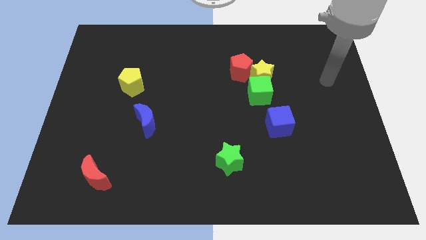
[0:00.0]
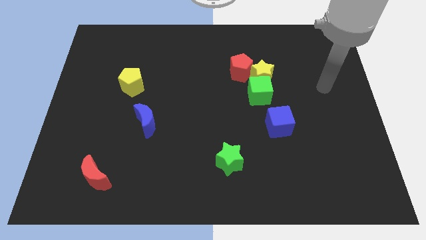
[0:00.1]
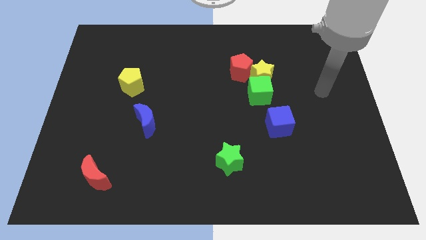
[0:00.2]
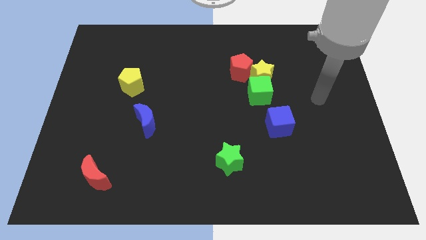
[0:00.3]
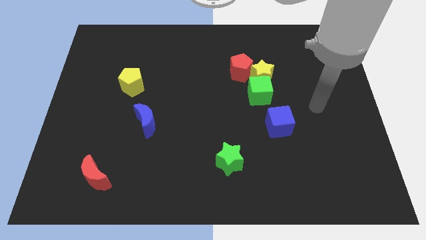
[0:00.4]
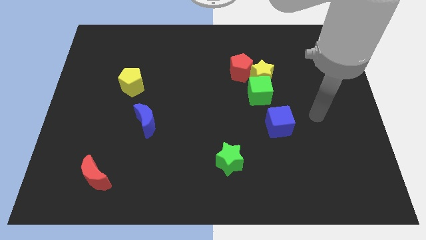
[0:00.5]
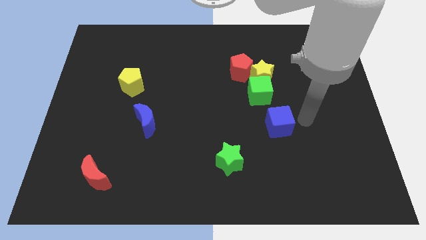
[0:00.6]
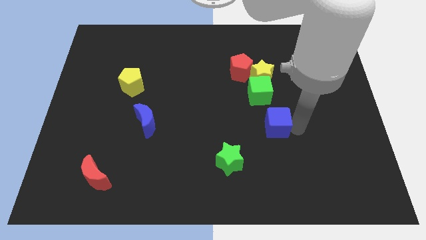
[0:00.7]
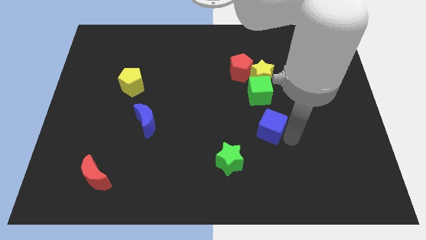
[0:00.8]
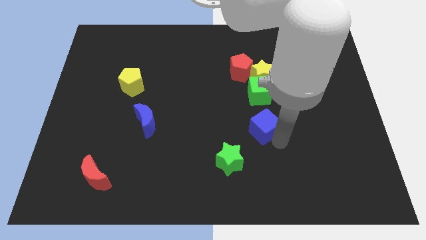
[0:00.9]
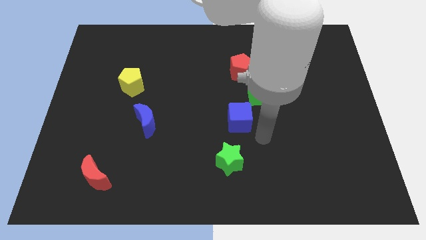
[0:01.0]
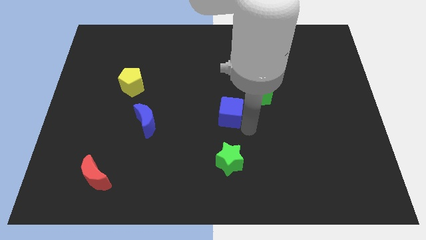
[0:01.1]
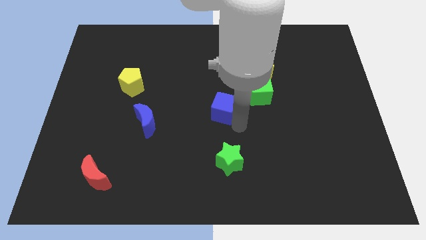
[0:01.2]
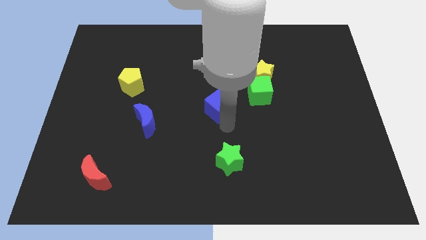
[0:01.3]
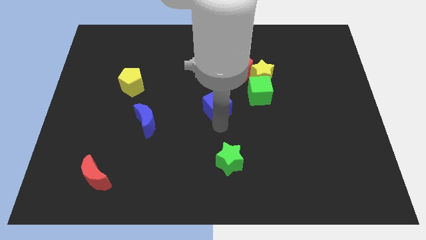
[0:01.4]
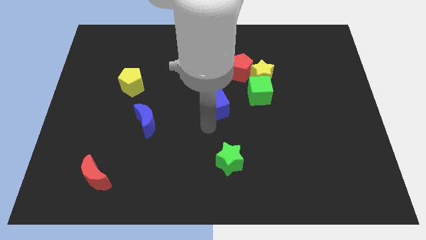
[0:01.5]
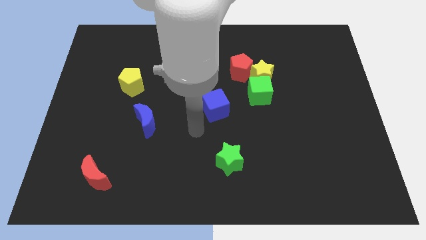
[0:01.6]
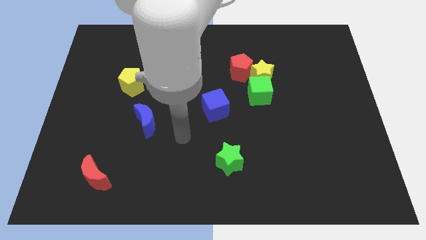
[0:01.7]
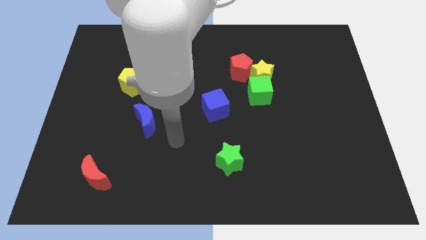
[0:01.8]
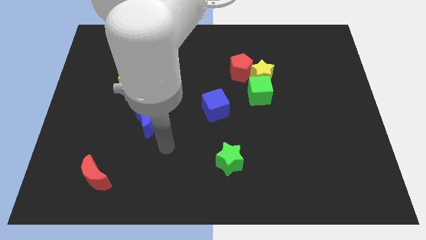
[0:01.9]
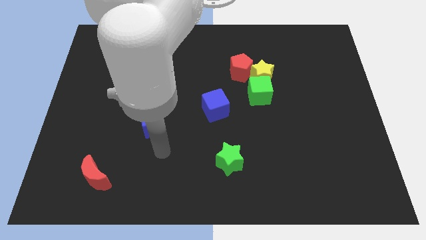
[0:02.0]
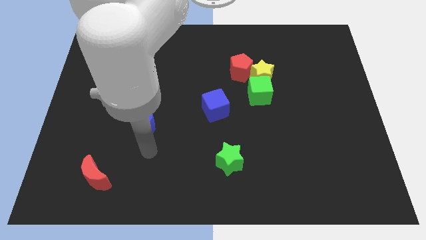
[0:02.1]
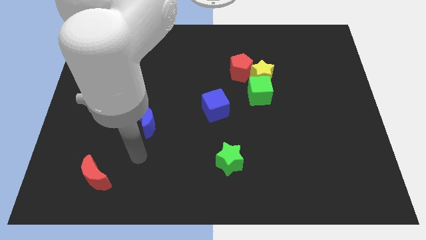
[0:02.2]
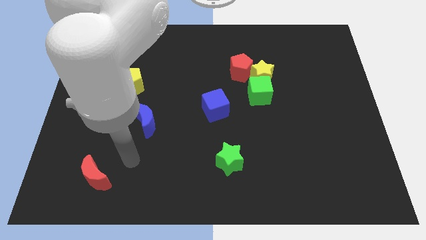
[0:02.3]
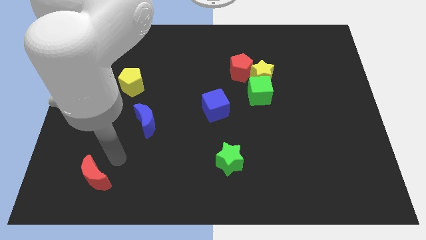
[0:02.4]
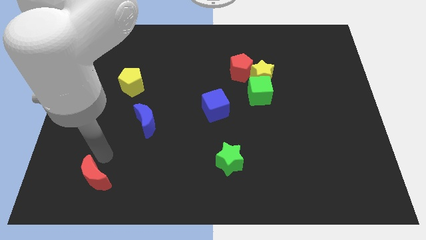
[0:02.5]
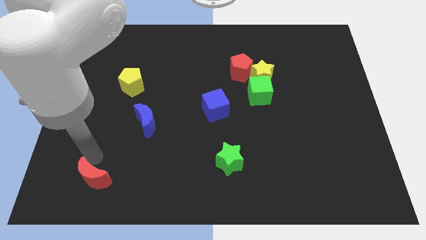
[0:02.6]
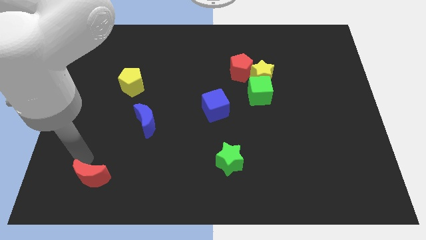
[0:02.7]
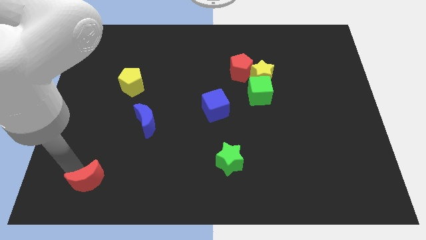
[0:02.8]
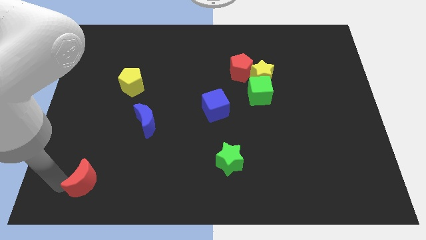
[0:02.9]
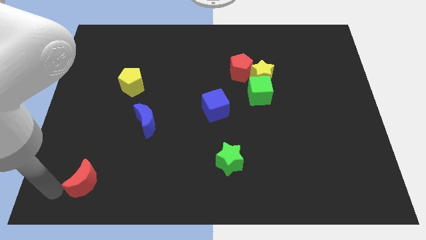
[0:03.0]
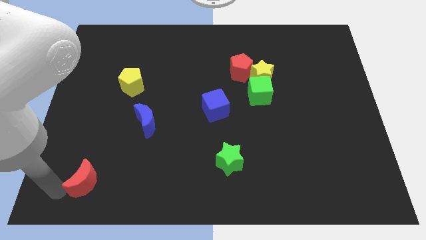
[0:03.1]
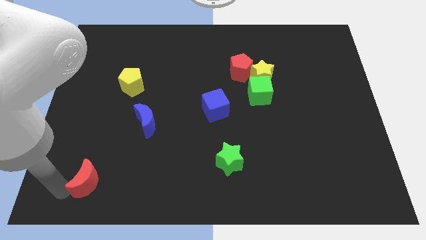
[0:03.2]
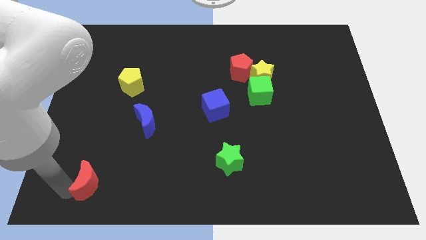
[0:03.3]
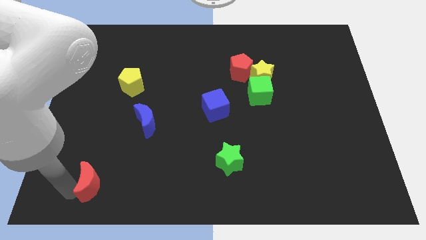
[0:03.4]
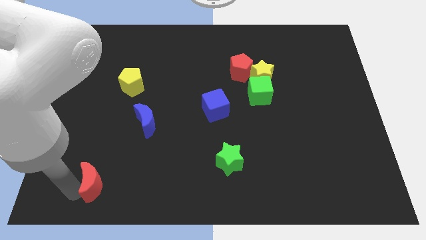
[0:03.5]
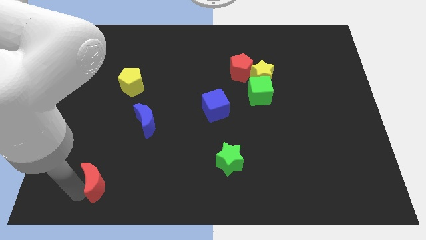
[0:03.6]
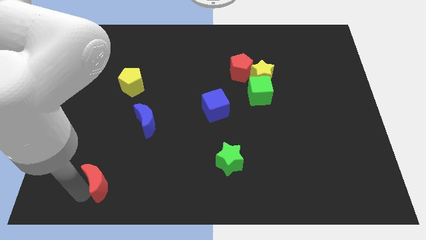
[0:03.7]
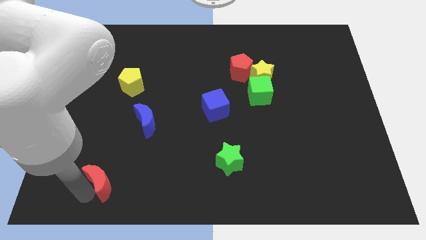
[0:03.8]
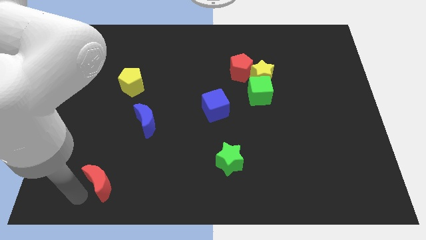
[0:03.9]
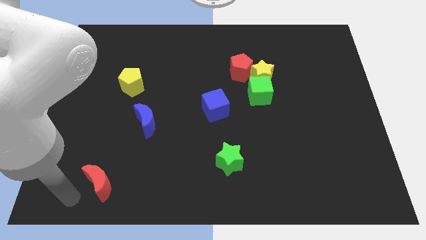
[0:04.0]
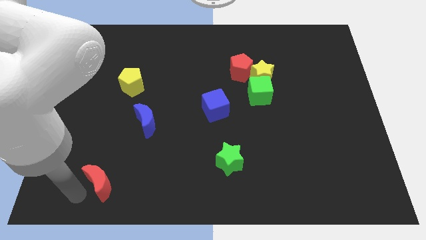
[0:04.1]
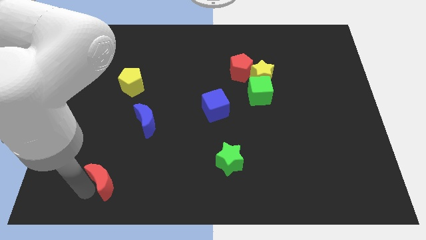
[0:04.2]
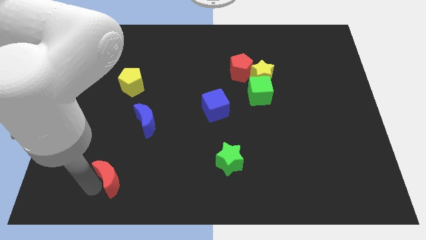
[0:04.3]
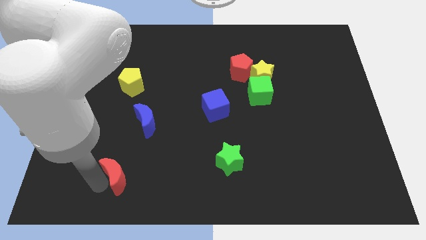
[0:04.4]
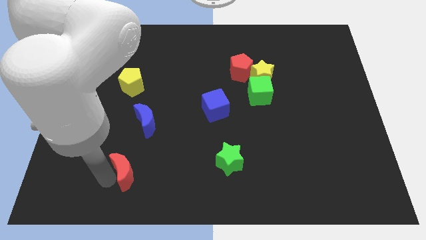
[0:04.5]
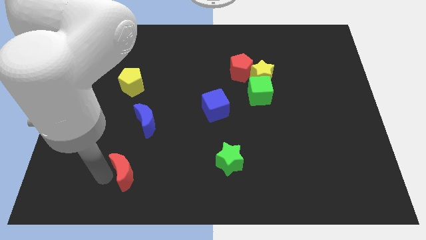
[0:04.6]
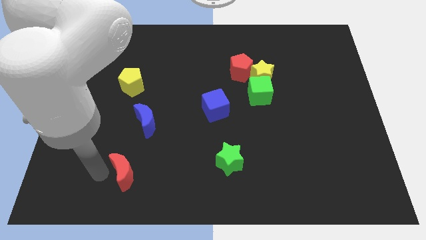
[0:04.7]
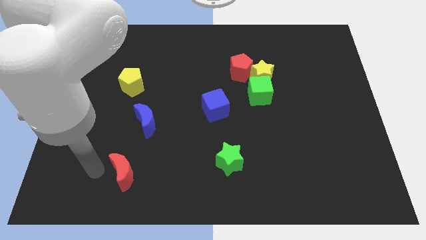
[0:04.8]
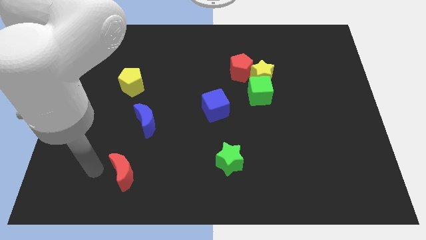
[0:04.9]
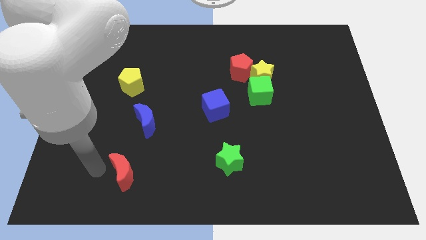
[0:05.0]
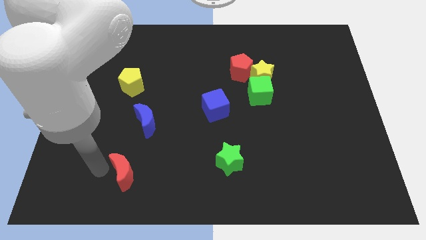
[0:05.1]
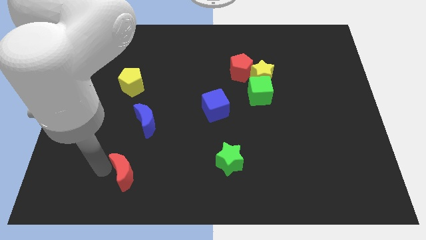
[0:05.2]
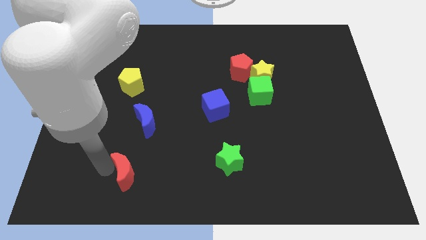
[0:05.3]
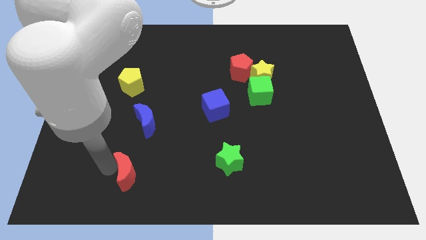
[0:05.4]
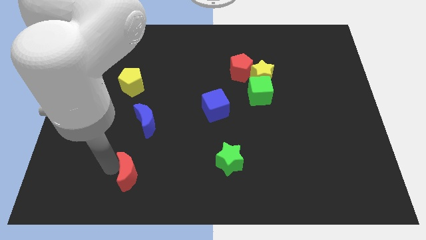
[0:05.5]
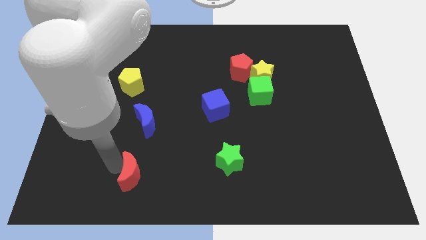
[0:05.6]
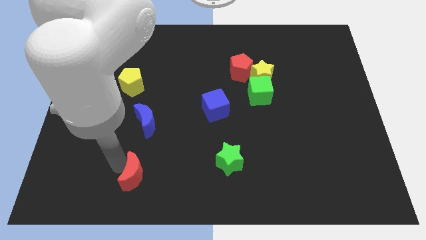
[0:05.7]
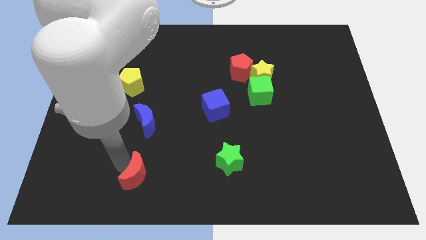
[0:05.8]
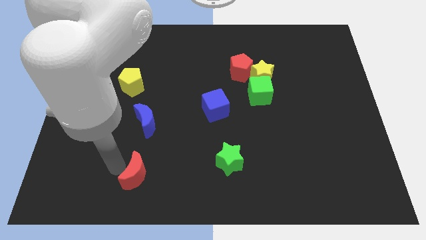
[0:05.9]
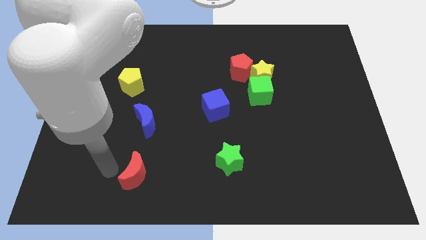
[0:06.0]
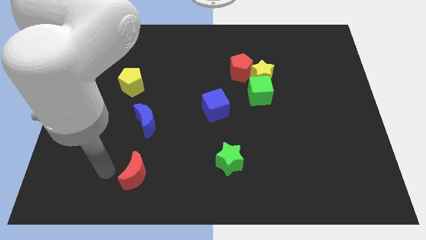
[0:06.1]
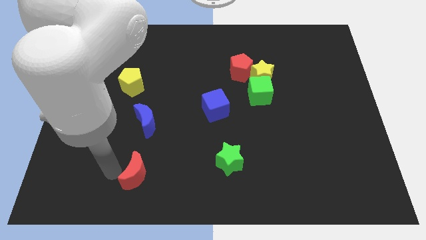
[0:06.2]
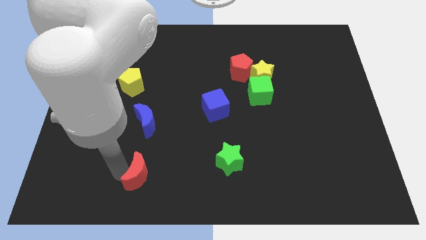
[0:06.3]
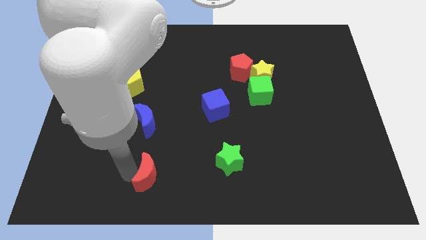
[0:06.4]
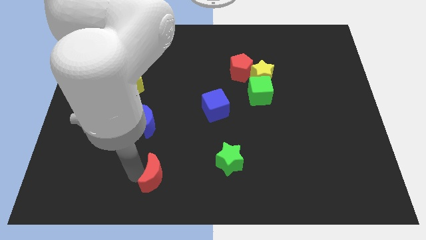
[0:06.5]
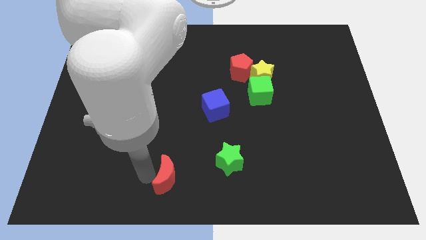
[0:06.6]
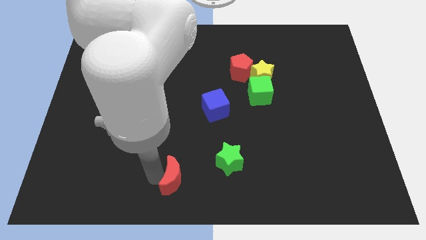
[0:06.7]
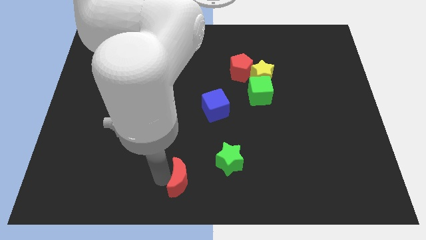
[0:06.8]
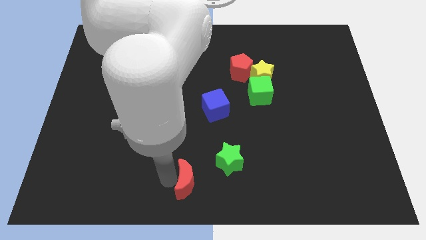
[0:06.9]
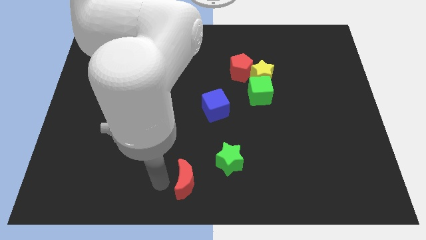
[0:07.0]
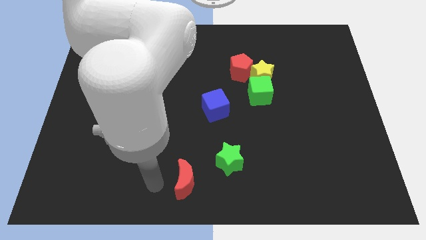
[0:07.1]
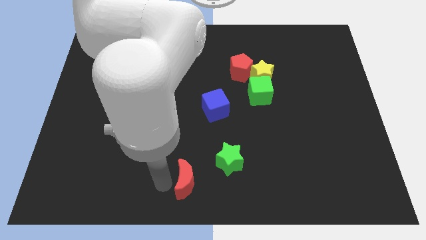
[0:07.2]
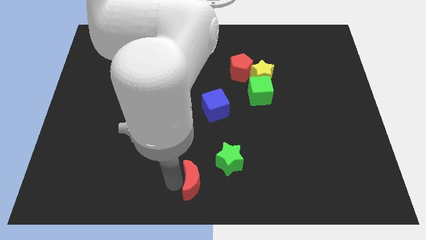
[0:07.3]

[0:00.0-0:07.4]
slide the red moon to the right

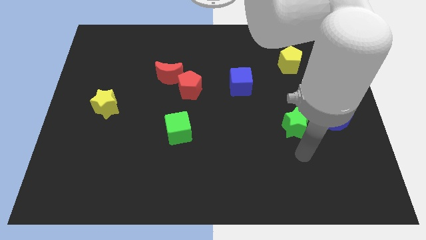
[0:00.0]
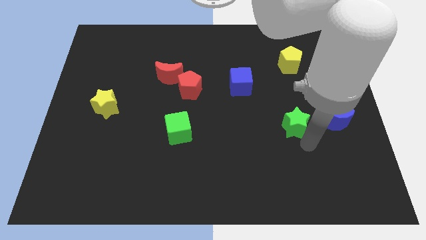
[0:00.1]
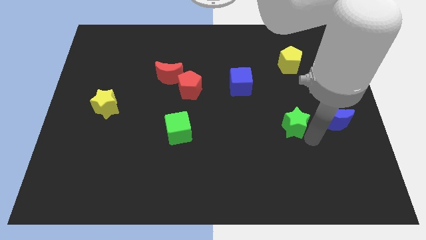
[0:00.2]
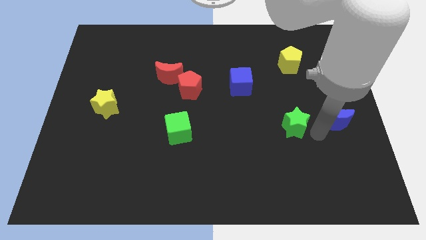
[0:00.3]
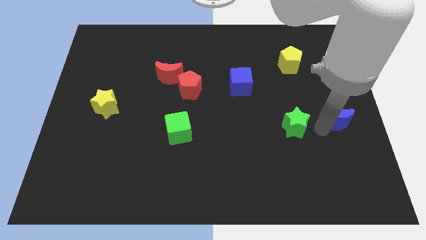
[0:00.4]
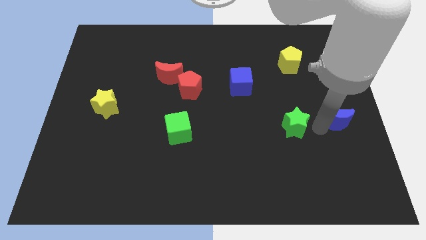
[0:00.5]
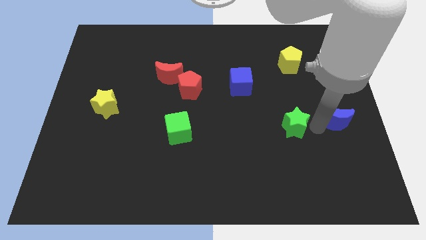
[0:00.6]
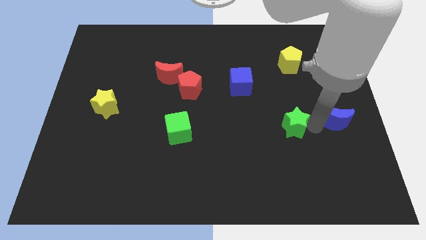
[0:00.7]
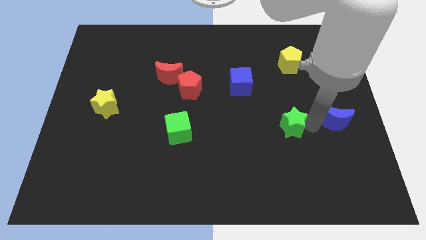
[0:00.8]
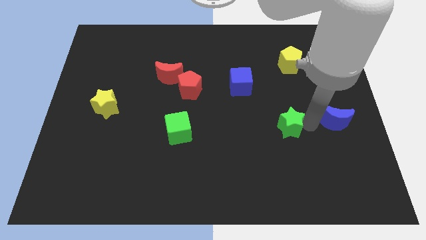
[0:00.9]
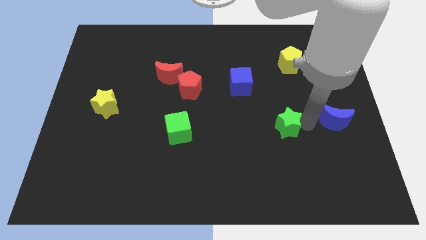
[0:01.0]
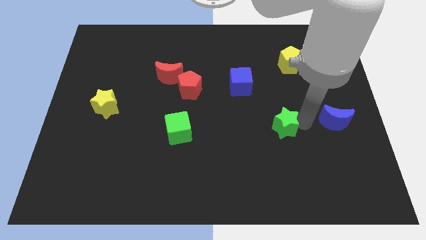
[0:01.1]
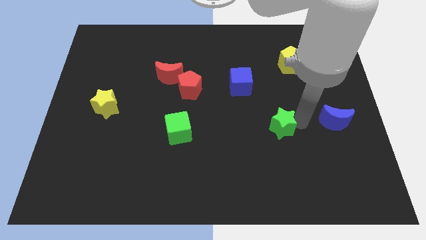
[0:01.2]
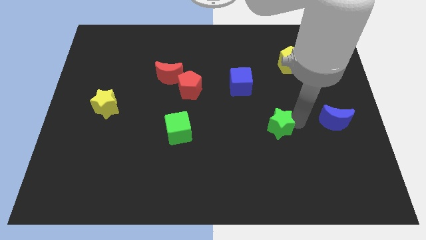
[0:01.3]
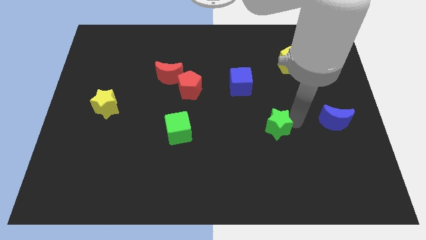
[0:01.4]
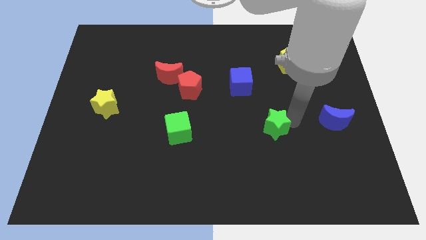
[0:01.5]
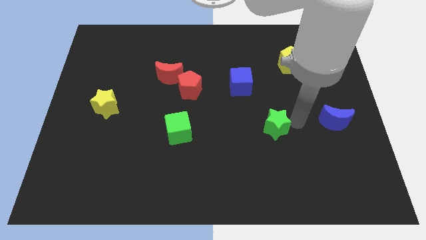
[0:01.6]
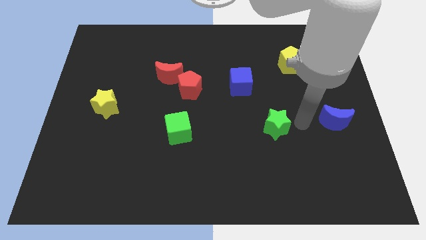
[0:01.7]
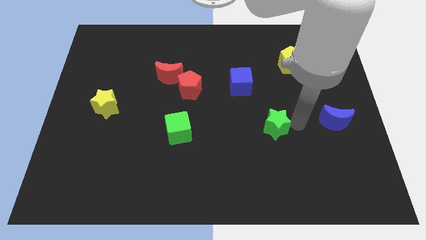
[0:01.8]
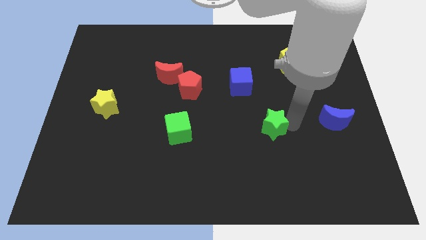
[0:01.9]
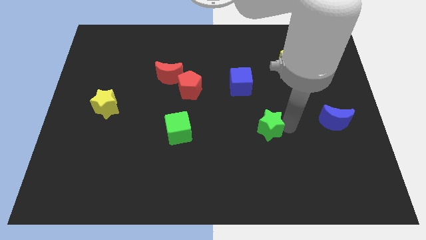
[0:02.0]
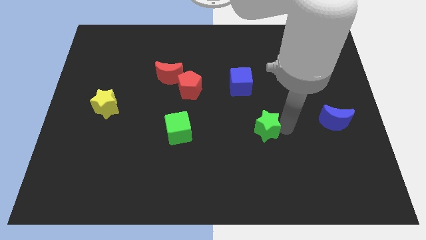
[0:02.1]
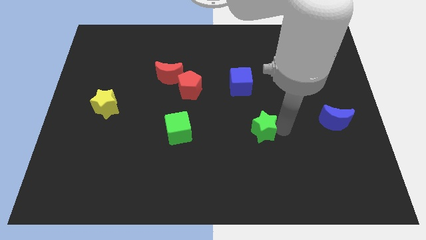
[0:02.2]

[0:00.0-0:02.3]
move the green star a little bit left
